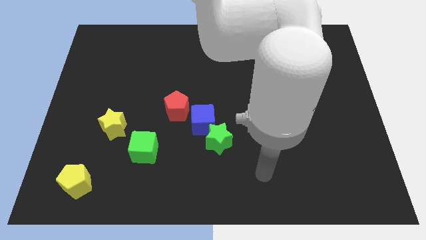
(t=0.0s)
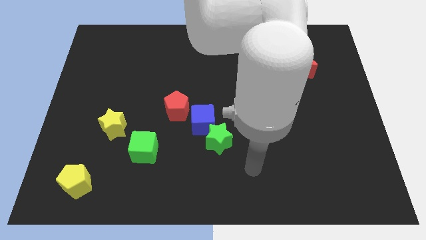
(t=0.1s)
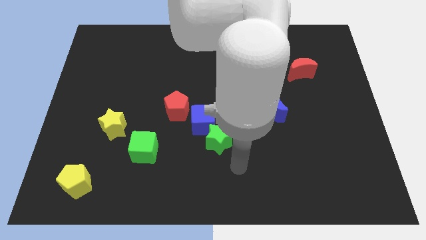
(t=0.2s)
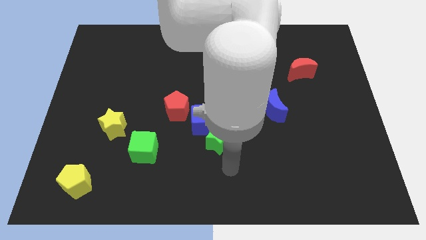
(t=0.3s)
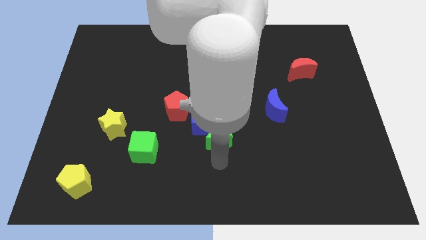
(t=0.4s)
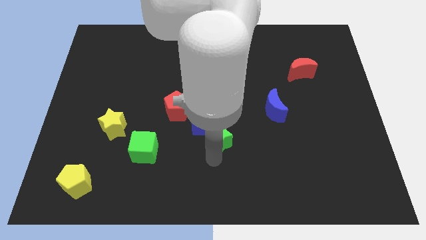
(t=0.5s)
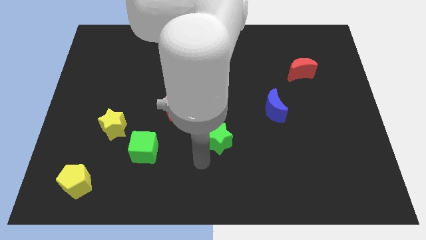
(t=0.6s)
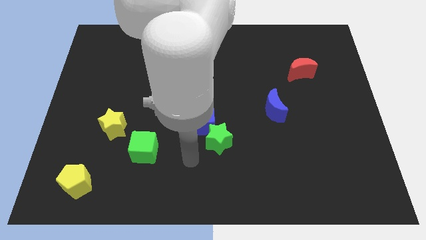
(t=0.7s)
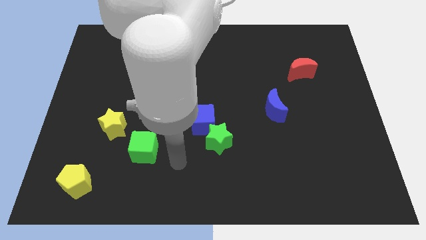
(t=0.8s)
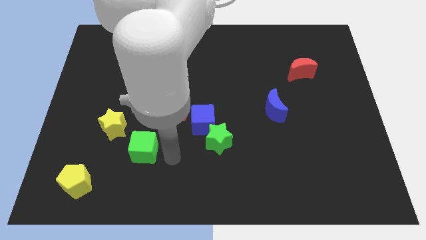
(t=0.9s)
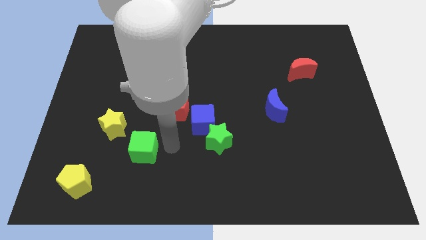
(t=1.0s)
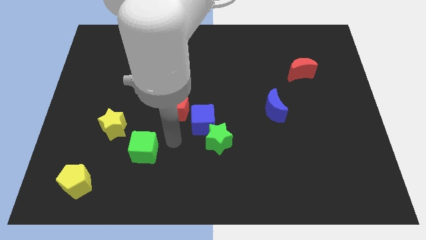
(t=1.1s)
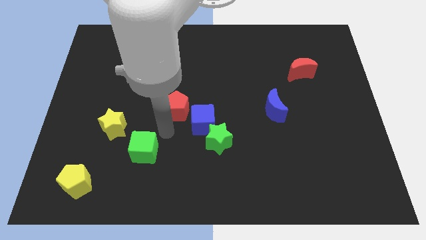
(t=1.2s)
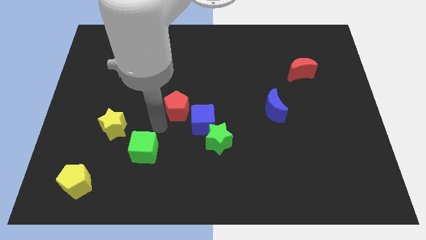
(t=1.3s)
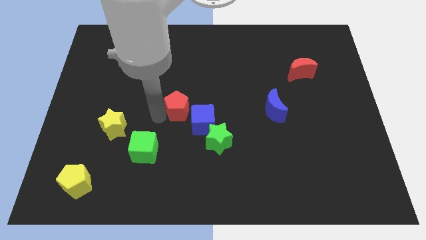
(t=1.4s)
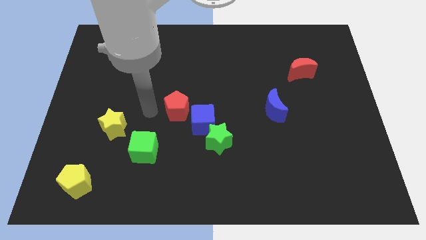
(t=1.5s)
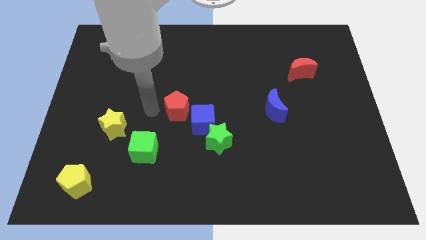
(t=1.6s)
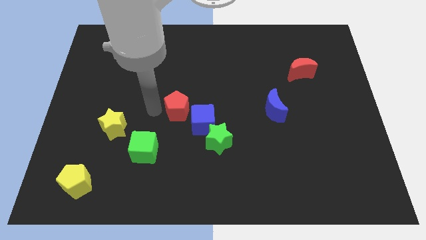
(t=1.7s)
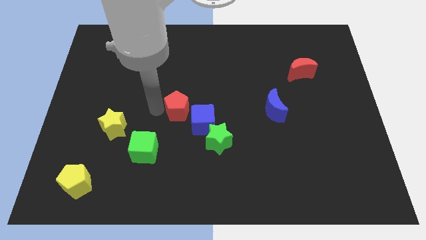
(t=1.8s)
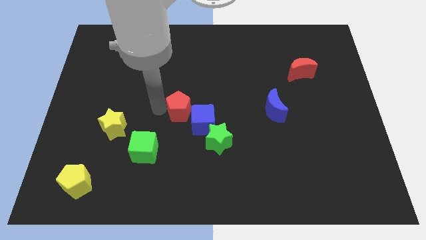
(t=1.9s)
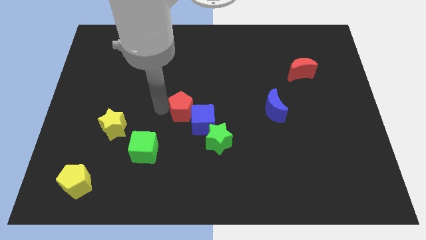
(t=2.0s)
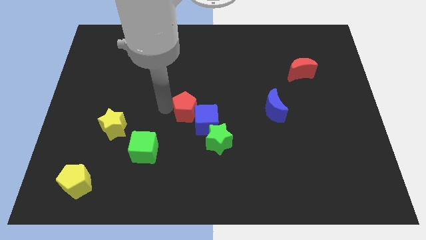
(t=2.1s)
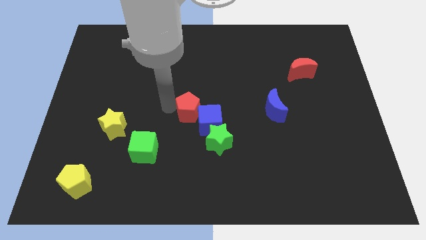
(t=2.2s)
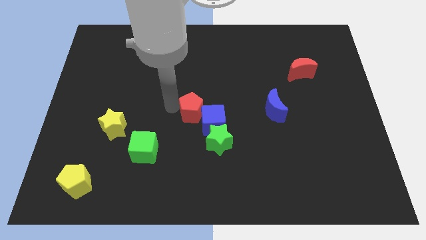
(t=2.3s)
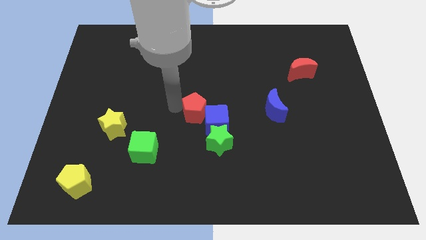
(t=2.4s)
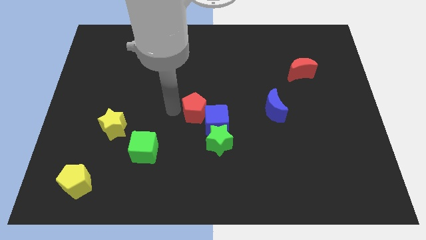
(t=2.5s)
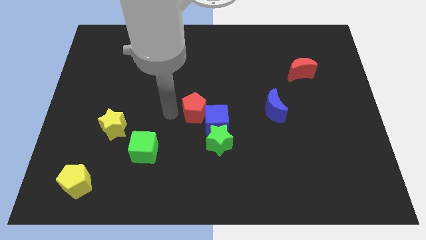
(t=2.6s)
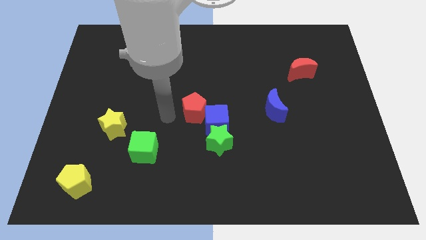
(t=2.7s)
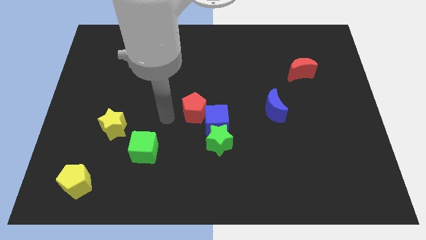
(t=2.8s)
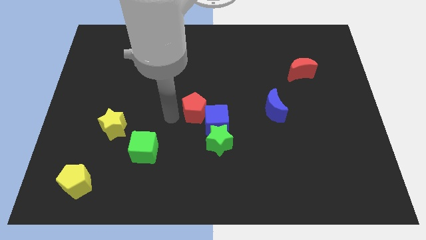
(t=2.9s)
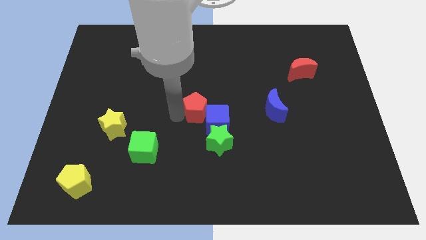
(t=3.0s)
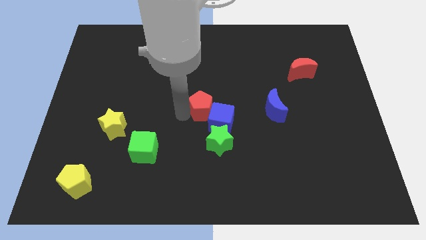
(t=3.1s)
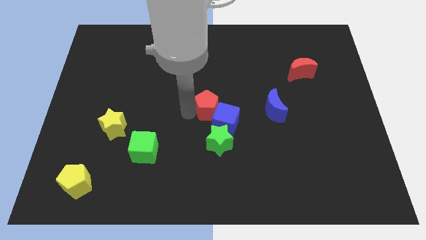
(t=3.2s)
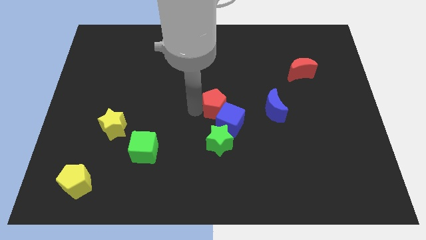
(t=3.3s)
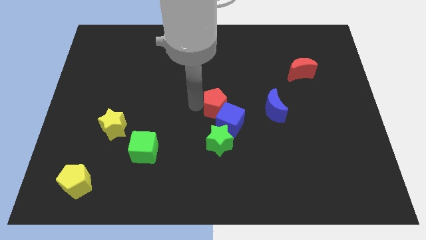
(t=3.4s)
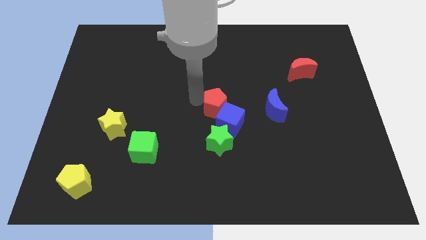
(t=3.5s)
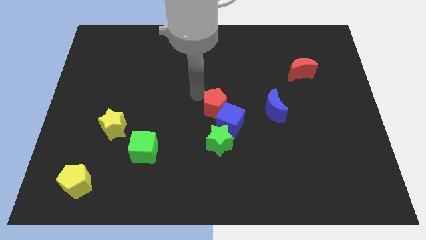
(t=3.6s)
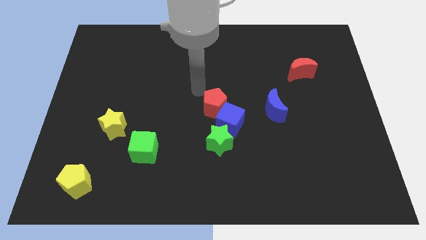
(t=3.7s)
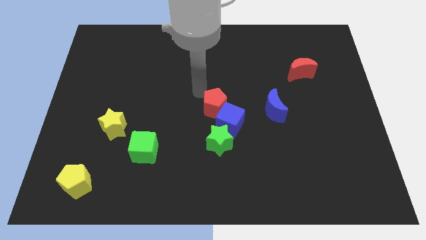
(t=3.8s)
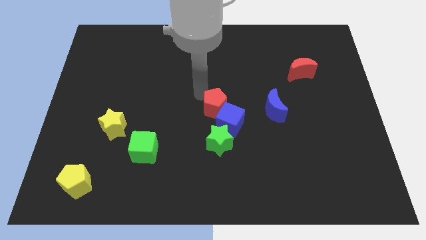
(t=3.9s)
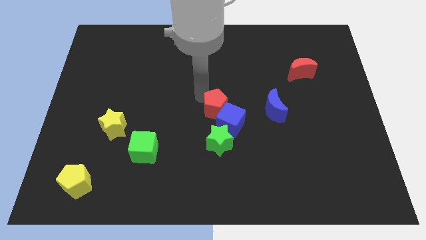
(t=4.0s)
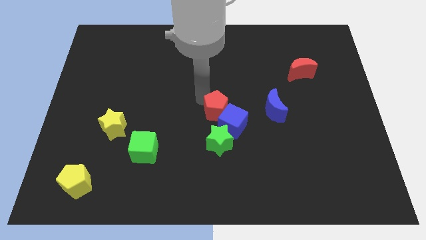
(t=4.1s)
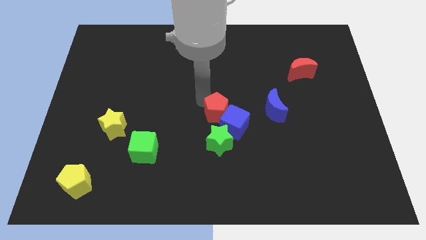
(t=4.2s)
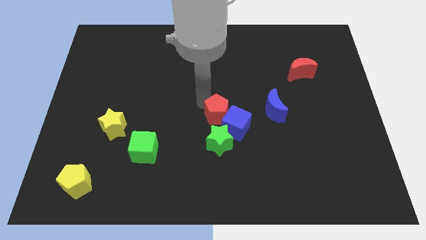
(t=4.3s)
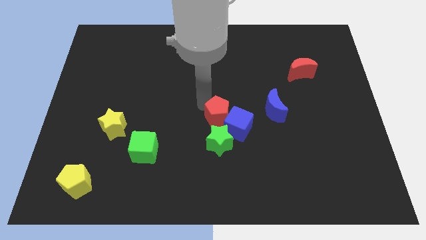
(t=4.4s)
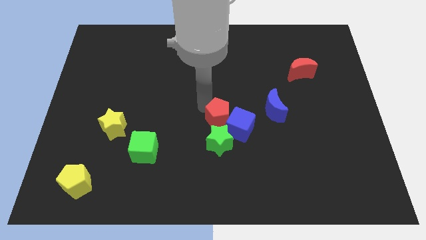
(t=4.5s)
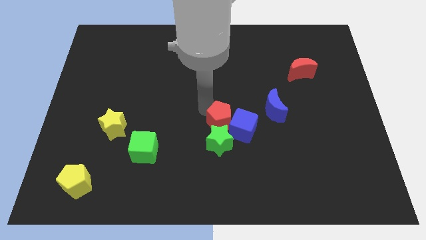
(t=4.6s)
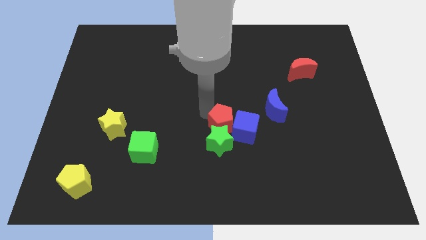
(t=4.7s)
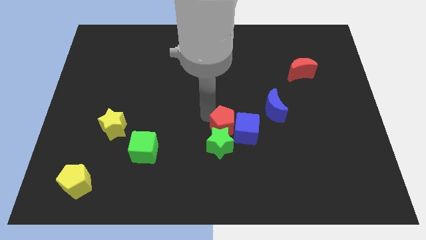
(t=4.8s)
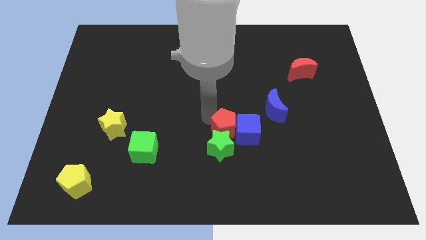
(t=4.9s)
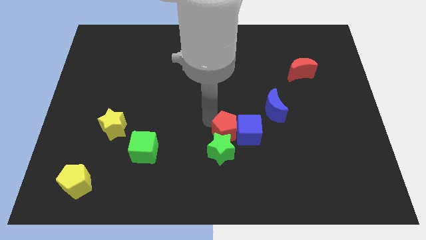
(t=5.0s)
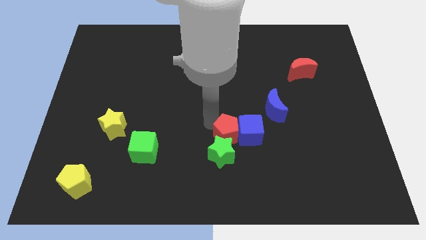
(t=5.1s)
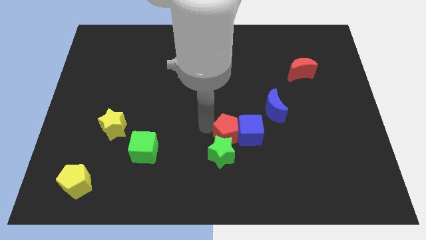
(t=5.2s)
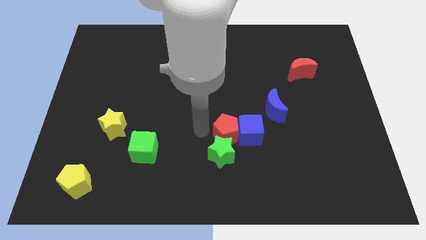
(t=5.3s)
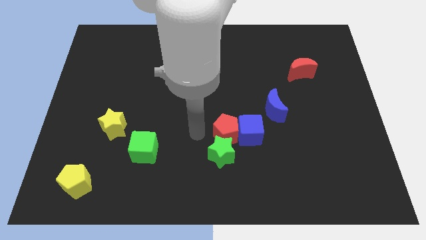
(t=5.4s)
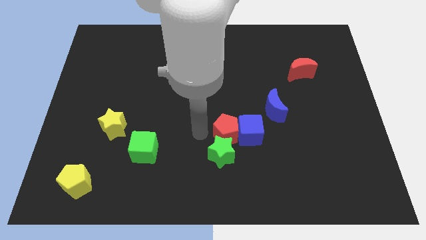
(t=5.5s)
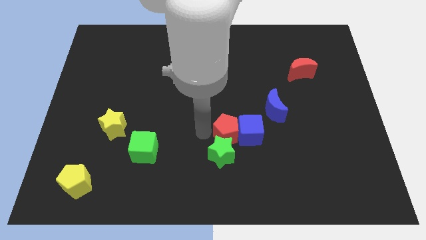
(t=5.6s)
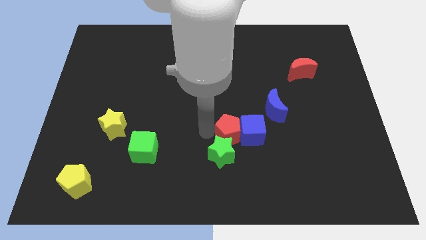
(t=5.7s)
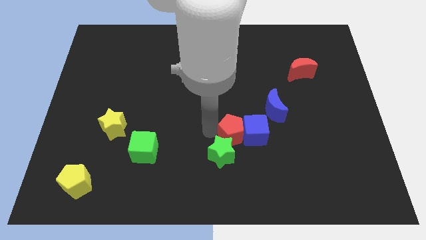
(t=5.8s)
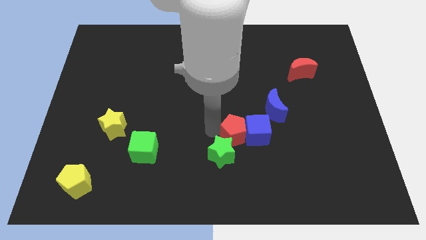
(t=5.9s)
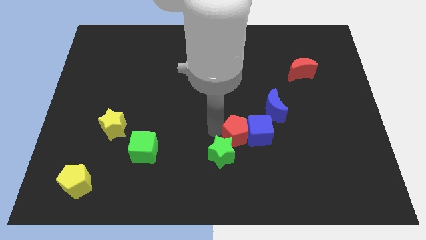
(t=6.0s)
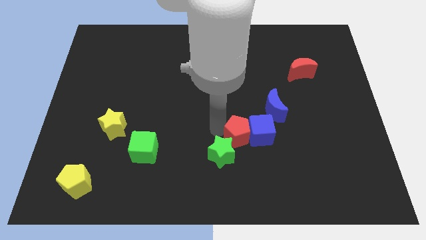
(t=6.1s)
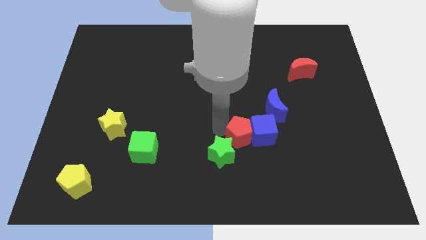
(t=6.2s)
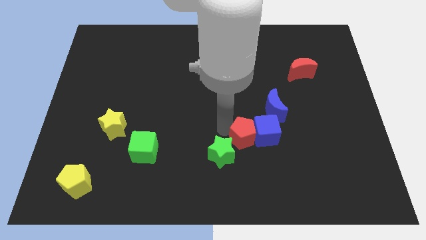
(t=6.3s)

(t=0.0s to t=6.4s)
push the red pentagon right of the green star

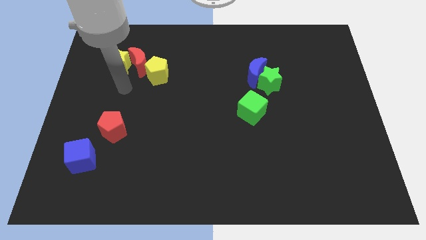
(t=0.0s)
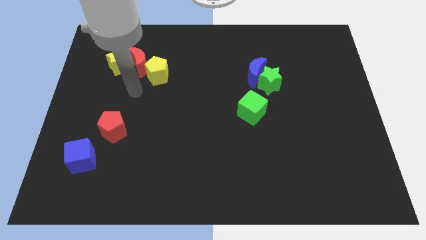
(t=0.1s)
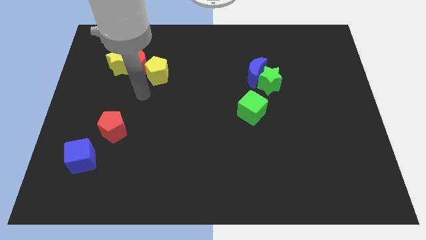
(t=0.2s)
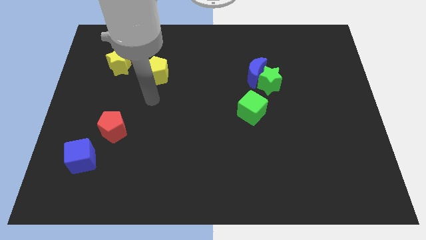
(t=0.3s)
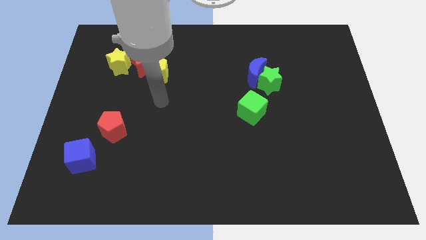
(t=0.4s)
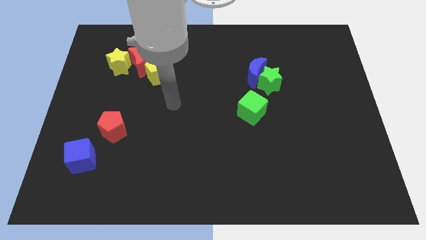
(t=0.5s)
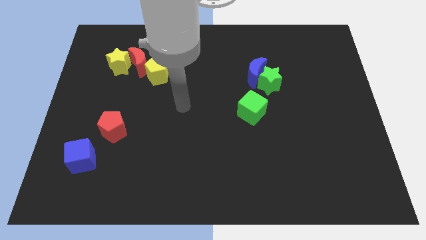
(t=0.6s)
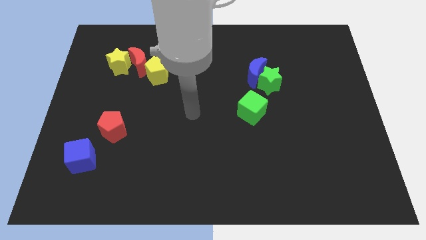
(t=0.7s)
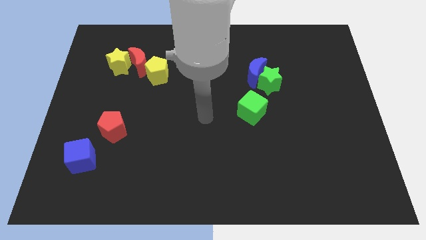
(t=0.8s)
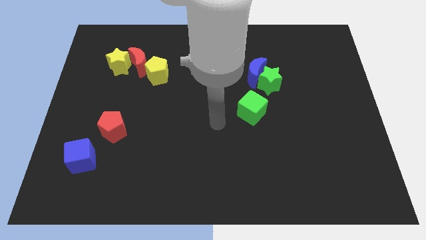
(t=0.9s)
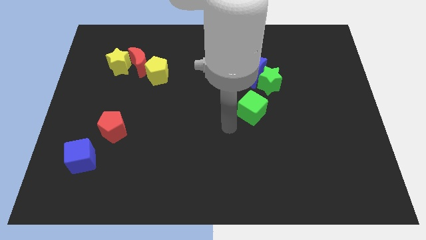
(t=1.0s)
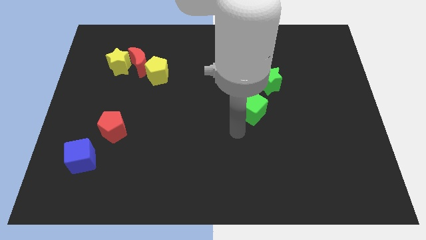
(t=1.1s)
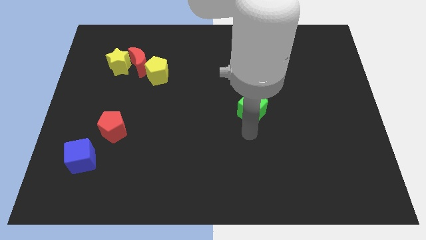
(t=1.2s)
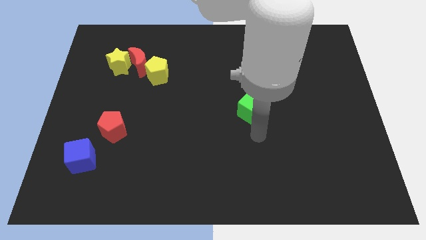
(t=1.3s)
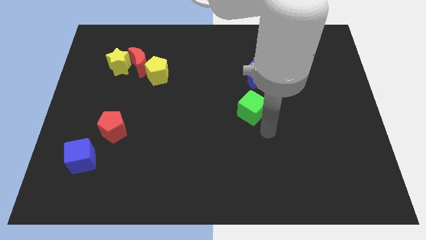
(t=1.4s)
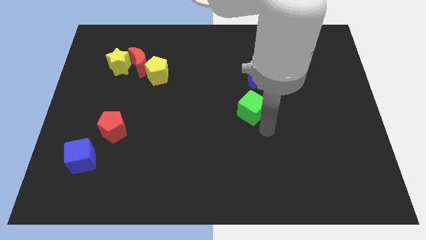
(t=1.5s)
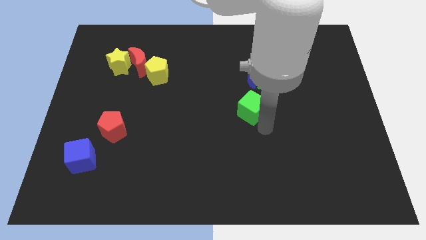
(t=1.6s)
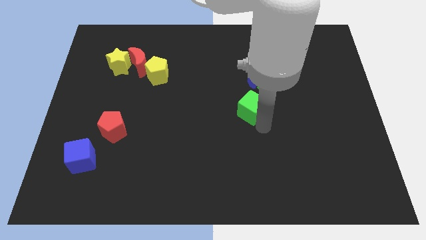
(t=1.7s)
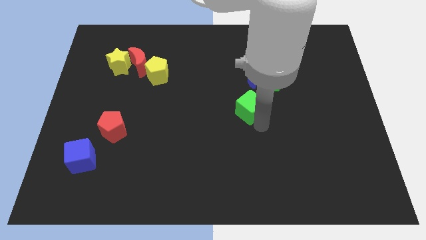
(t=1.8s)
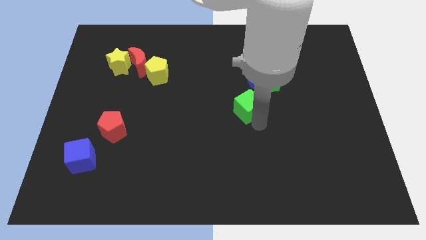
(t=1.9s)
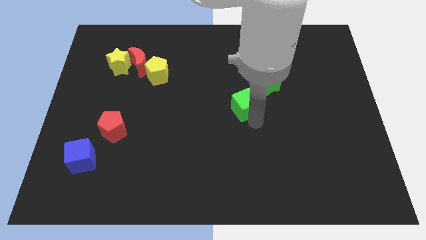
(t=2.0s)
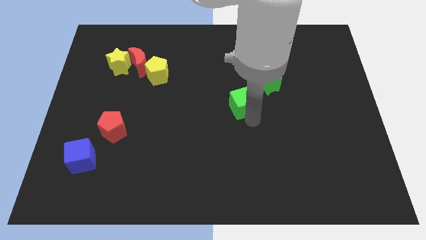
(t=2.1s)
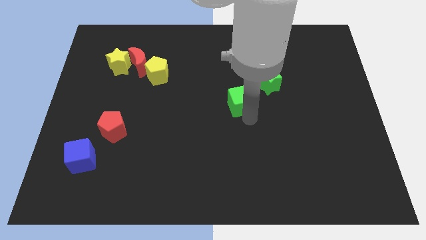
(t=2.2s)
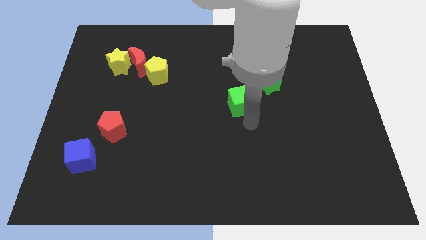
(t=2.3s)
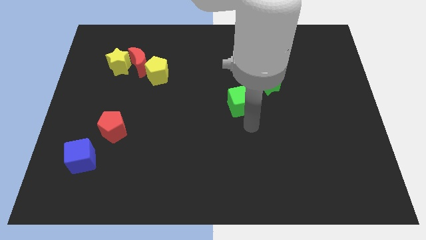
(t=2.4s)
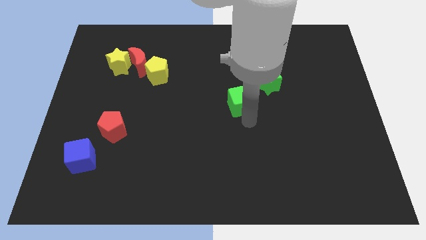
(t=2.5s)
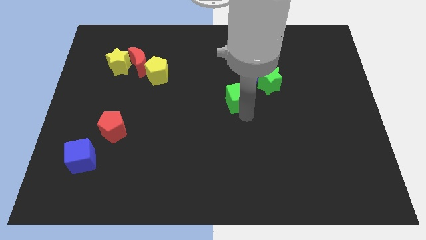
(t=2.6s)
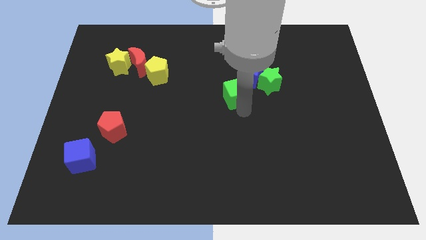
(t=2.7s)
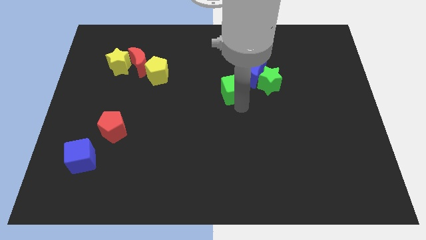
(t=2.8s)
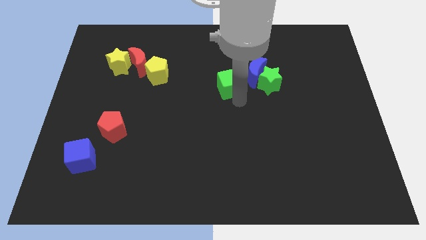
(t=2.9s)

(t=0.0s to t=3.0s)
push the green cube just left of the blue moon
